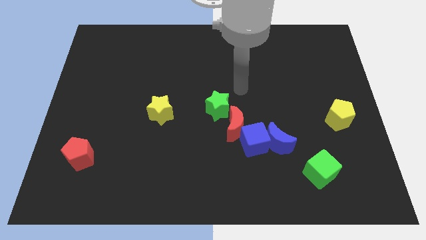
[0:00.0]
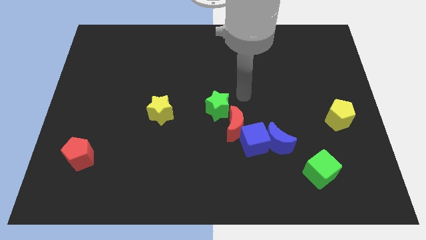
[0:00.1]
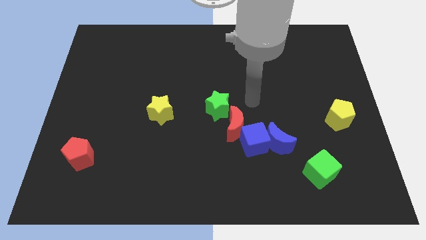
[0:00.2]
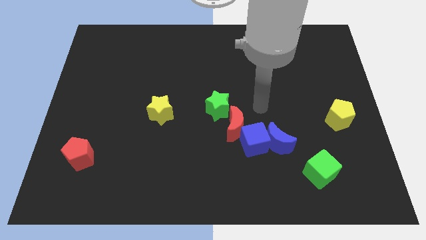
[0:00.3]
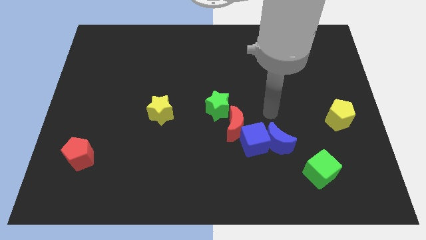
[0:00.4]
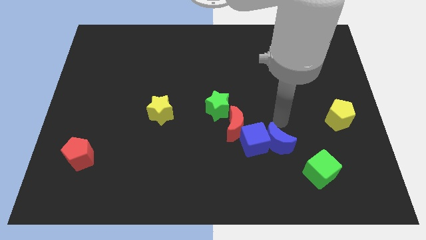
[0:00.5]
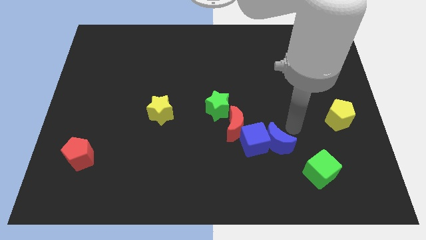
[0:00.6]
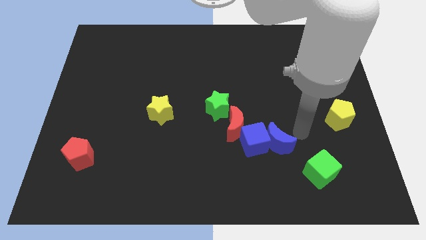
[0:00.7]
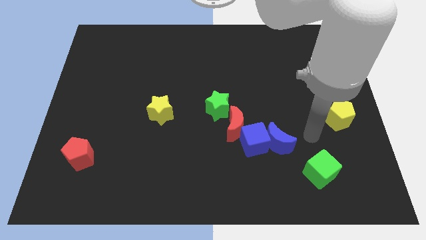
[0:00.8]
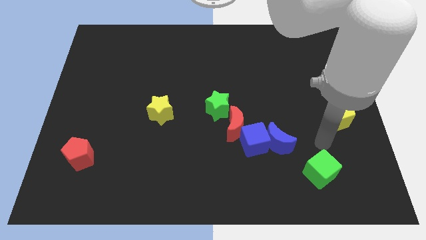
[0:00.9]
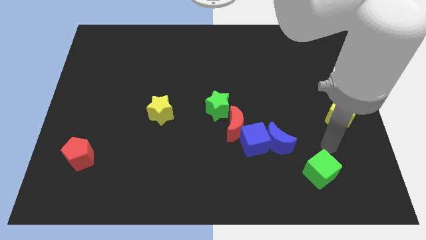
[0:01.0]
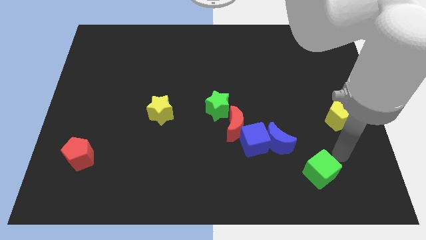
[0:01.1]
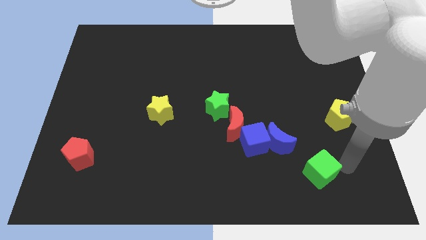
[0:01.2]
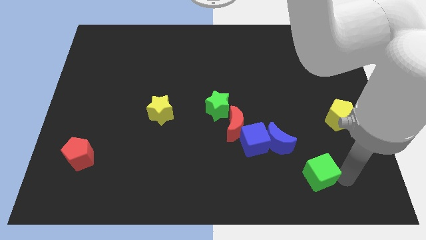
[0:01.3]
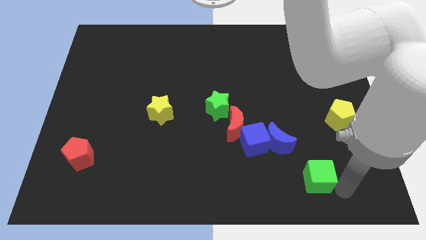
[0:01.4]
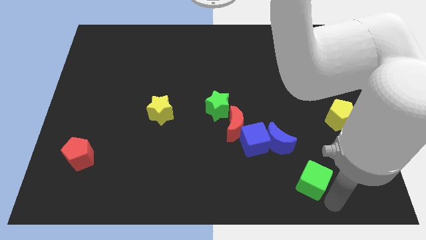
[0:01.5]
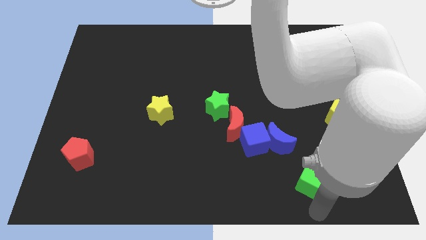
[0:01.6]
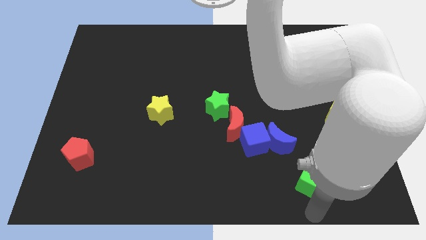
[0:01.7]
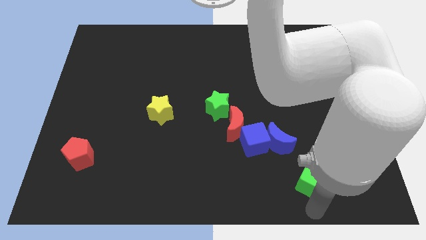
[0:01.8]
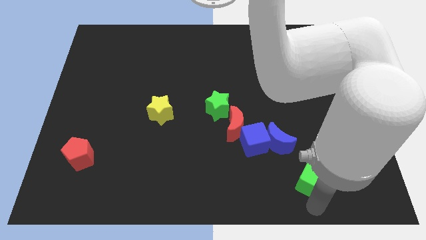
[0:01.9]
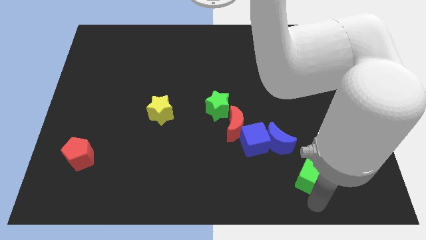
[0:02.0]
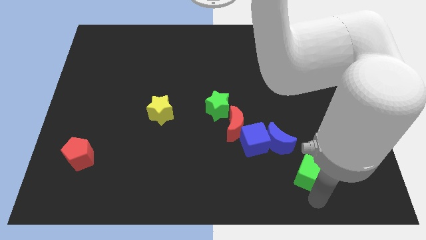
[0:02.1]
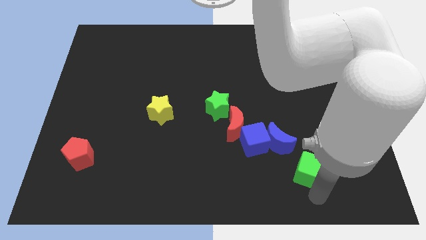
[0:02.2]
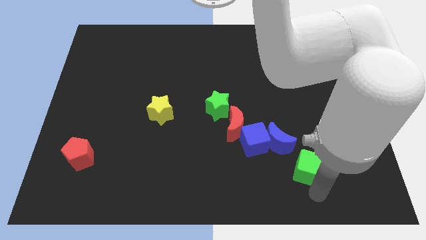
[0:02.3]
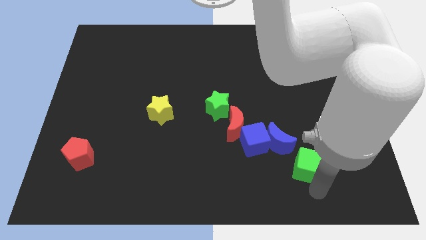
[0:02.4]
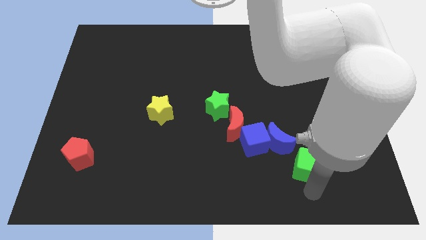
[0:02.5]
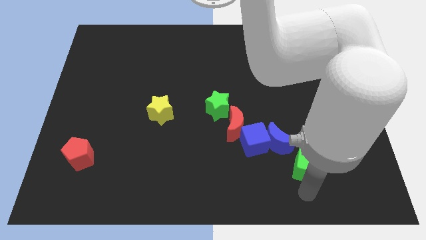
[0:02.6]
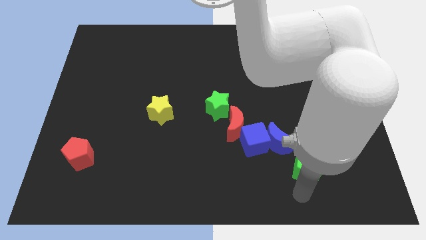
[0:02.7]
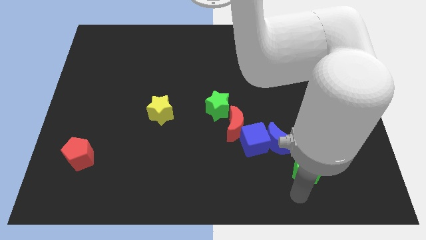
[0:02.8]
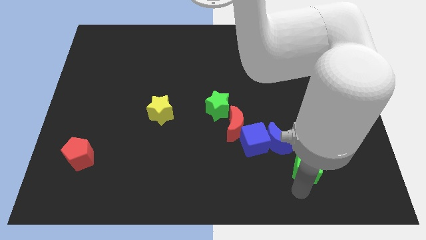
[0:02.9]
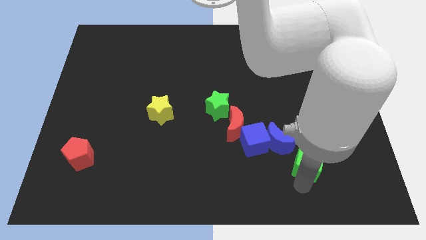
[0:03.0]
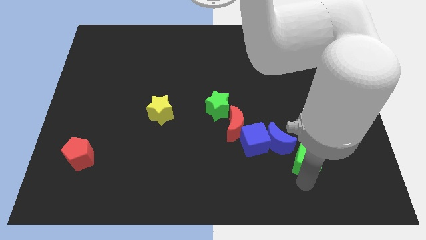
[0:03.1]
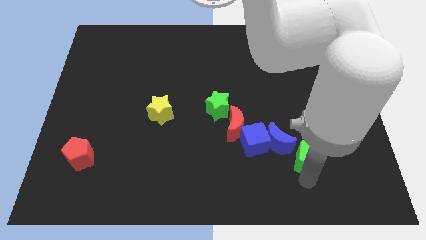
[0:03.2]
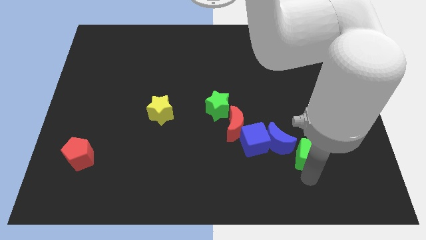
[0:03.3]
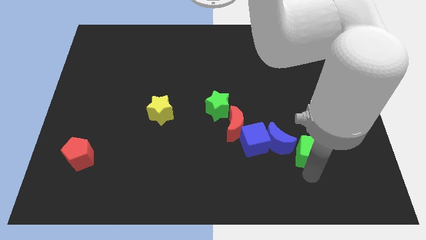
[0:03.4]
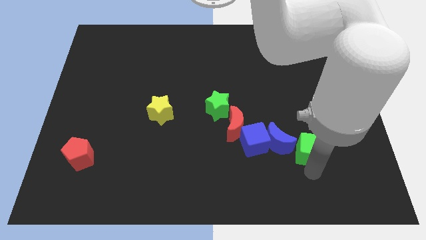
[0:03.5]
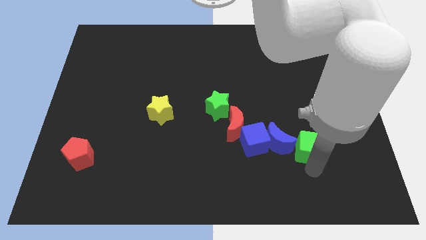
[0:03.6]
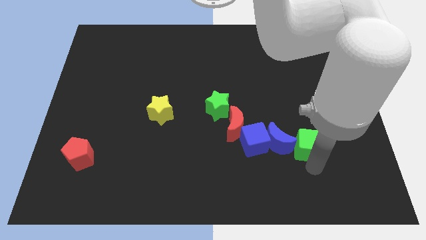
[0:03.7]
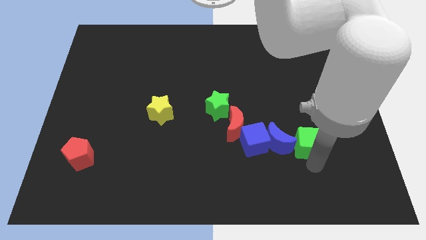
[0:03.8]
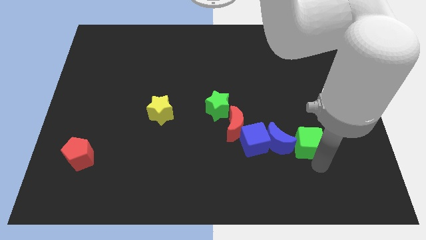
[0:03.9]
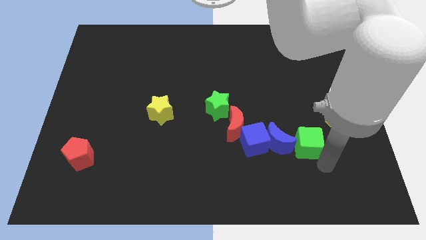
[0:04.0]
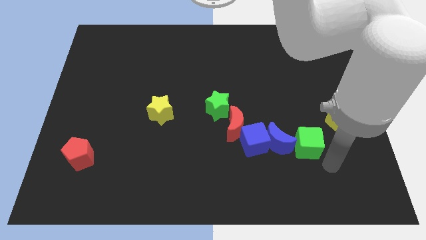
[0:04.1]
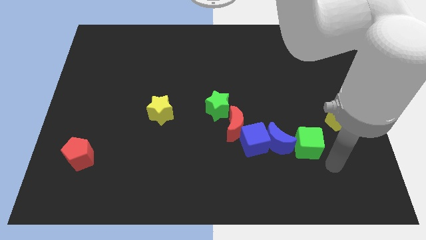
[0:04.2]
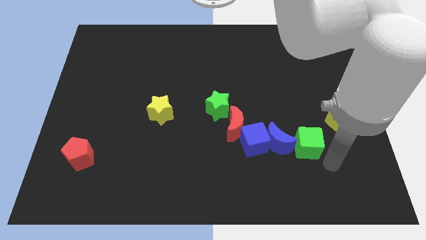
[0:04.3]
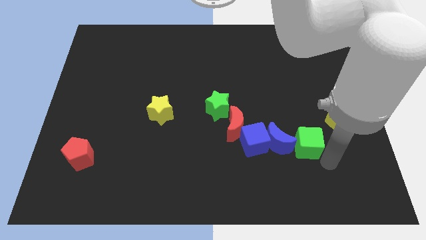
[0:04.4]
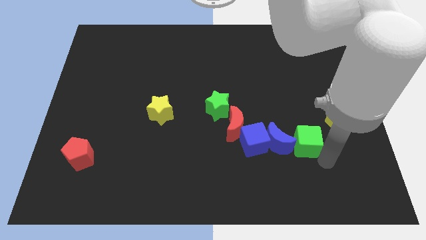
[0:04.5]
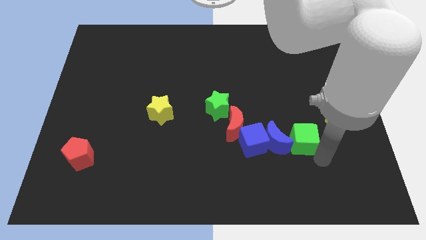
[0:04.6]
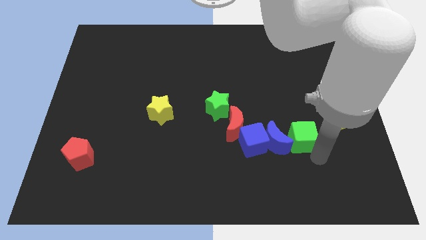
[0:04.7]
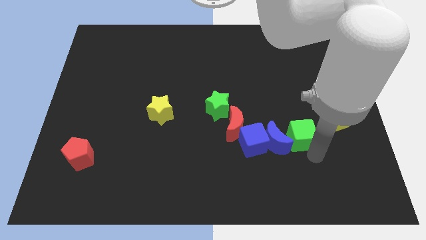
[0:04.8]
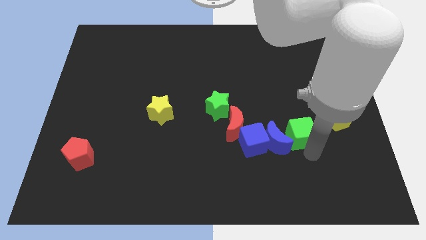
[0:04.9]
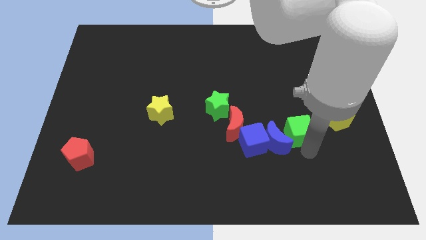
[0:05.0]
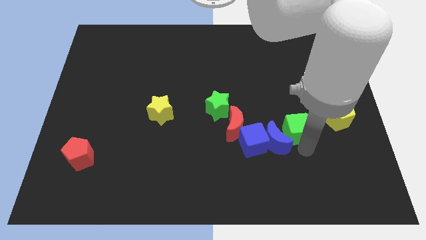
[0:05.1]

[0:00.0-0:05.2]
put the green cube to the top right of the blue cube

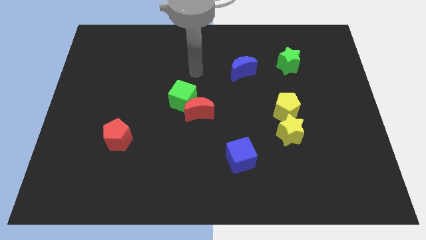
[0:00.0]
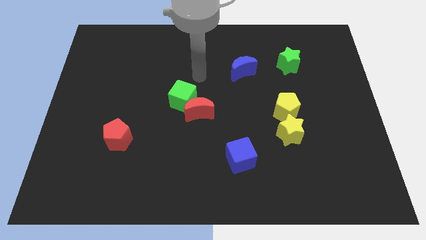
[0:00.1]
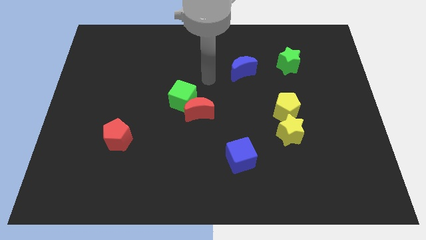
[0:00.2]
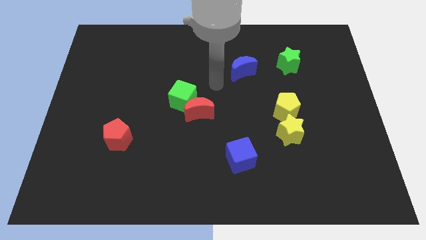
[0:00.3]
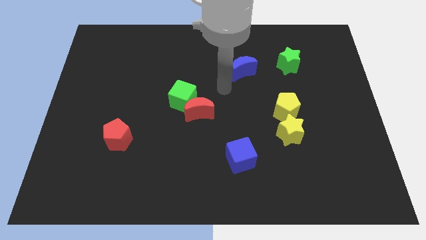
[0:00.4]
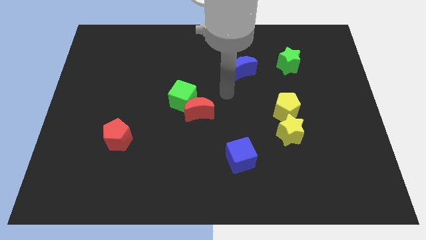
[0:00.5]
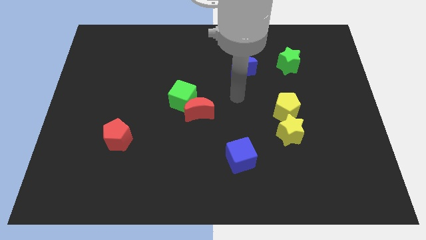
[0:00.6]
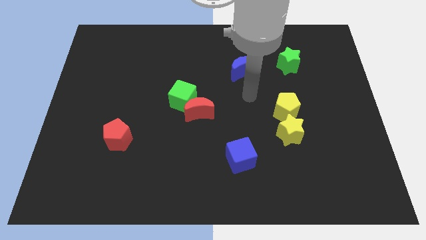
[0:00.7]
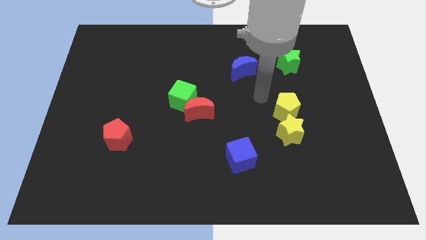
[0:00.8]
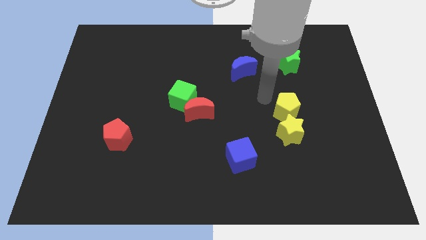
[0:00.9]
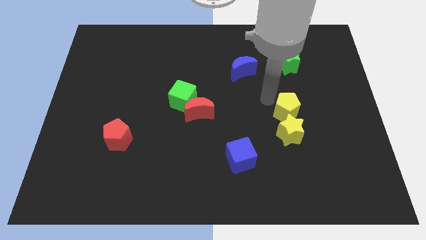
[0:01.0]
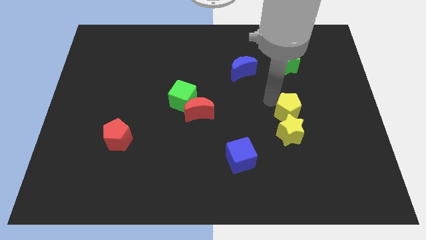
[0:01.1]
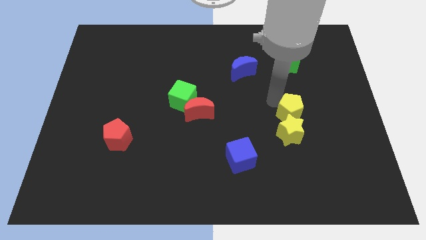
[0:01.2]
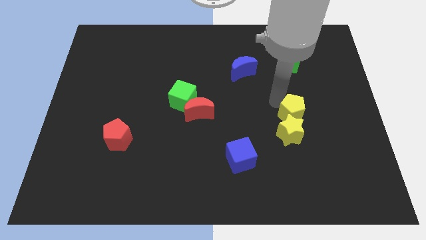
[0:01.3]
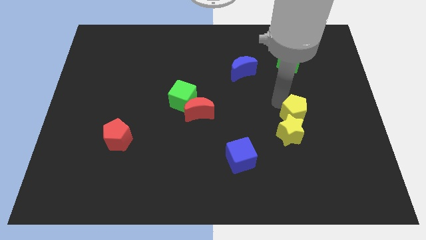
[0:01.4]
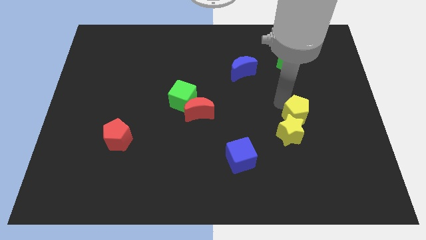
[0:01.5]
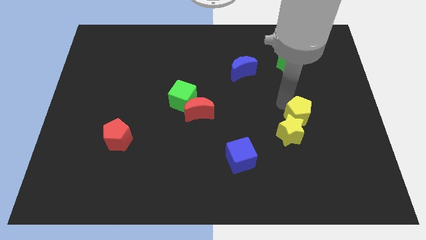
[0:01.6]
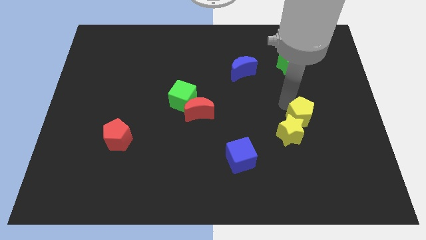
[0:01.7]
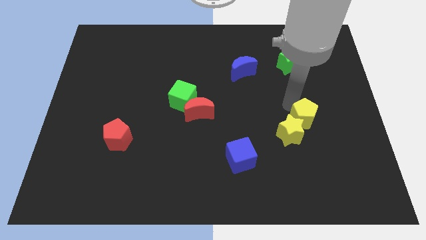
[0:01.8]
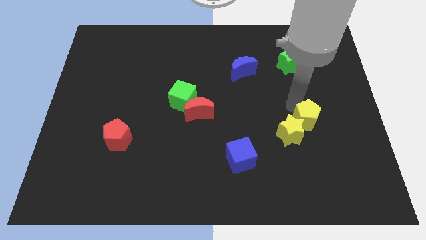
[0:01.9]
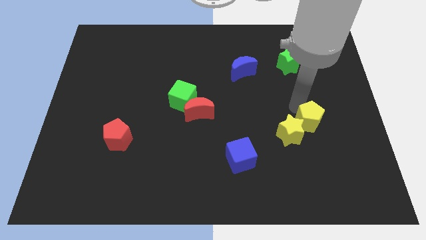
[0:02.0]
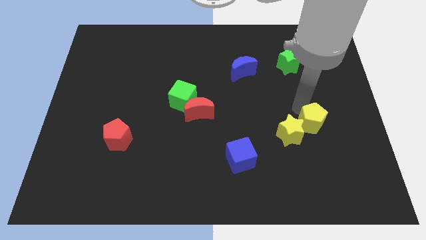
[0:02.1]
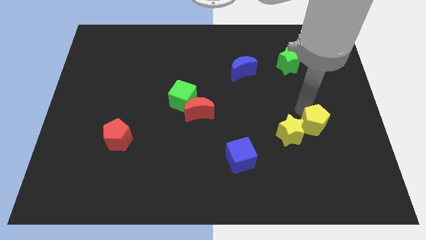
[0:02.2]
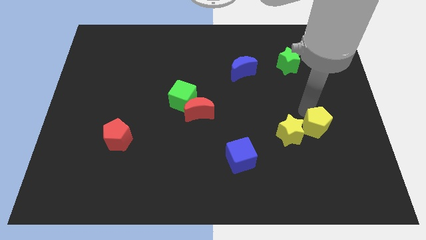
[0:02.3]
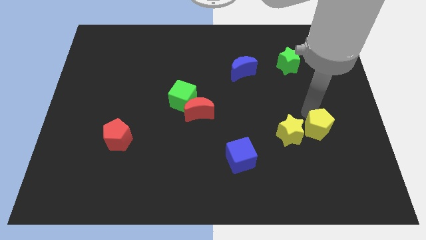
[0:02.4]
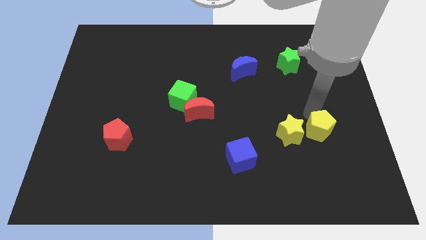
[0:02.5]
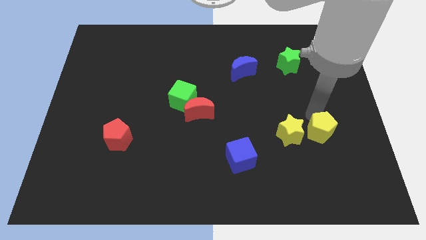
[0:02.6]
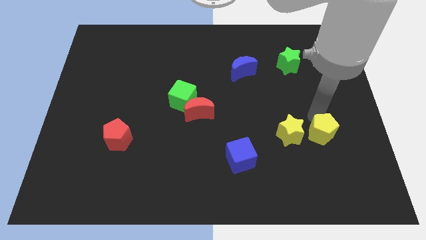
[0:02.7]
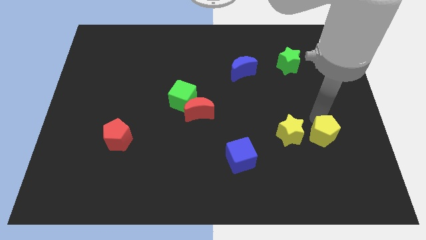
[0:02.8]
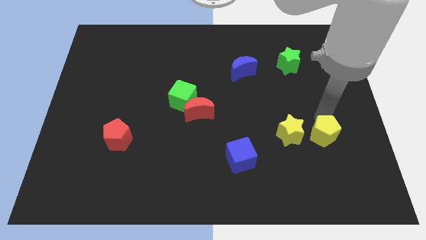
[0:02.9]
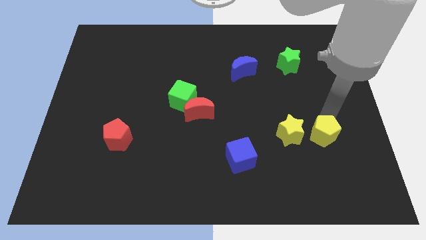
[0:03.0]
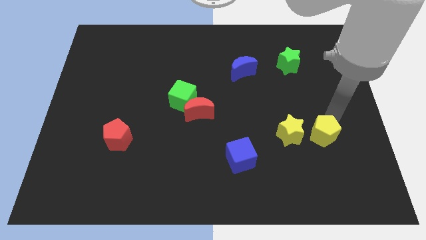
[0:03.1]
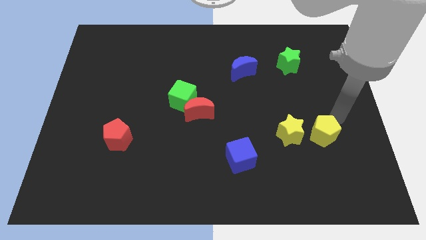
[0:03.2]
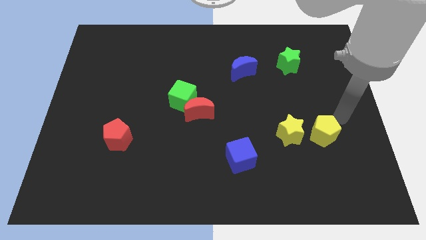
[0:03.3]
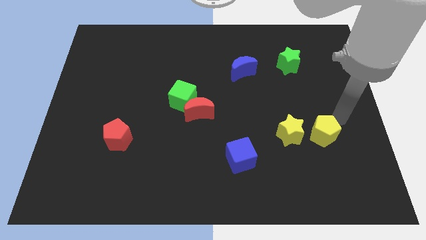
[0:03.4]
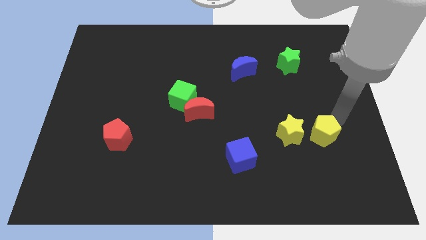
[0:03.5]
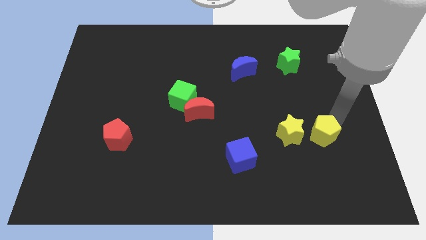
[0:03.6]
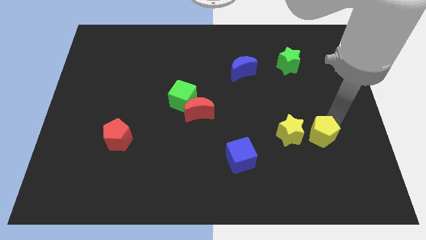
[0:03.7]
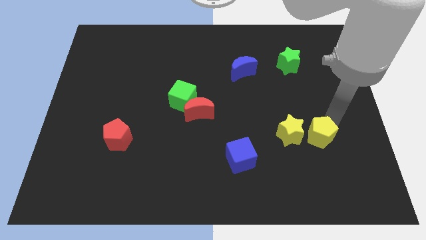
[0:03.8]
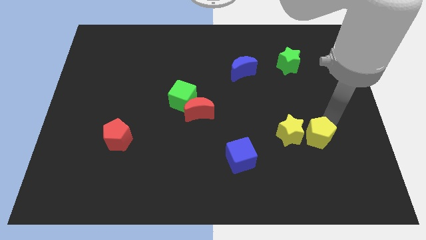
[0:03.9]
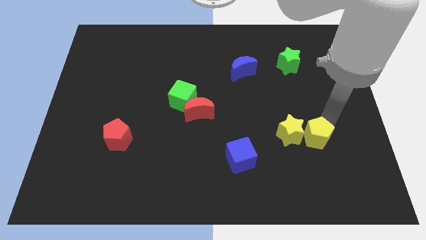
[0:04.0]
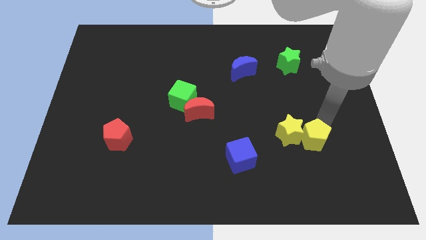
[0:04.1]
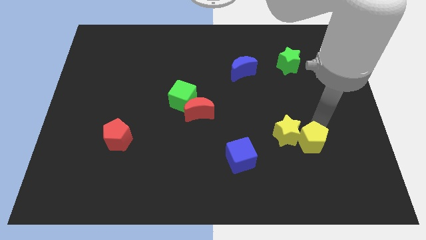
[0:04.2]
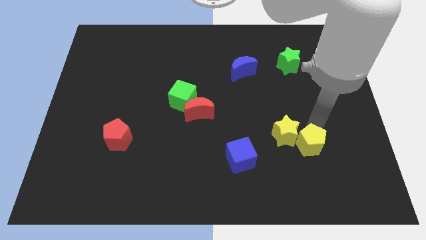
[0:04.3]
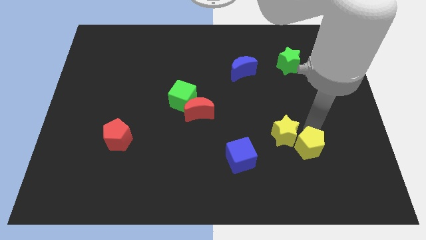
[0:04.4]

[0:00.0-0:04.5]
move the yellow pentagon to the bottom of the yellow star
